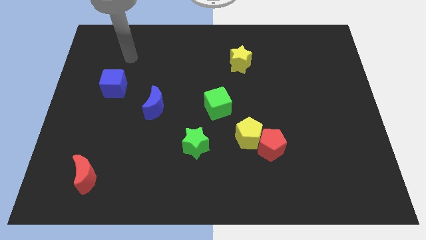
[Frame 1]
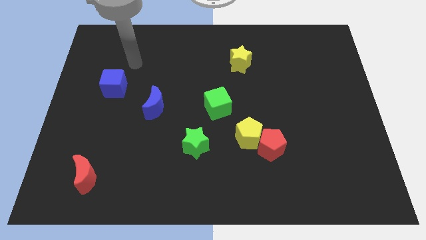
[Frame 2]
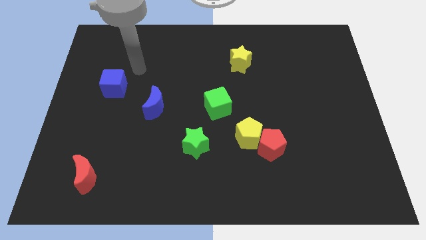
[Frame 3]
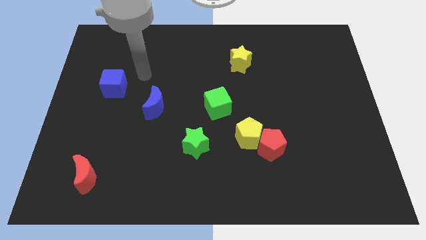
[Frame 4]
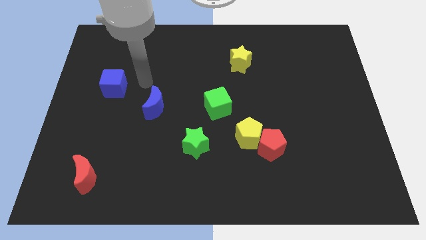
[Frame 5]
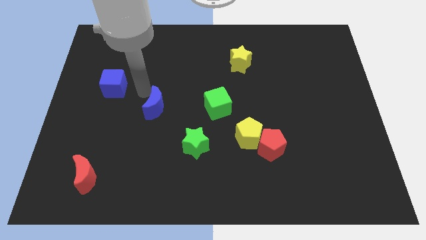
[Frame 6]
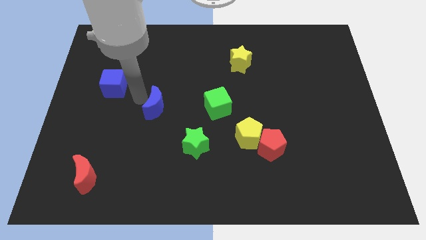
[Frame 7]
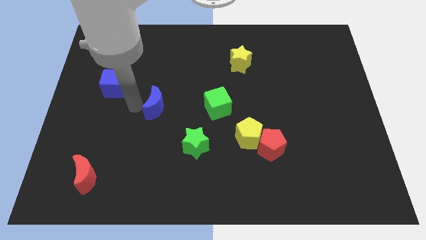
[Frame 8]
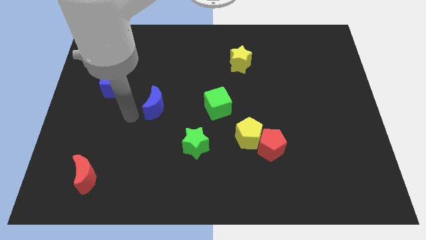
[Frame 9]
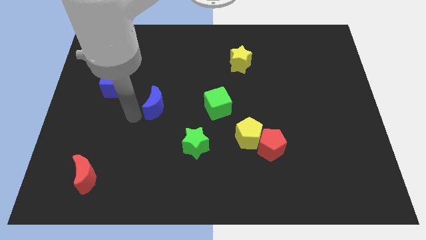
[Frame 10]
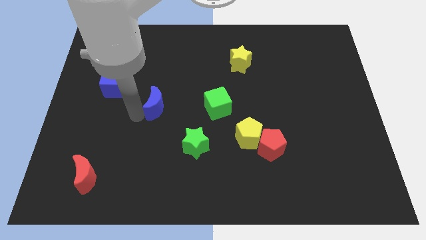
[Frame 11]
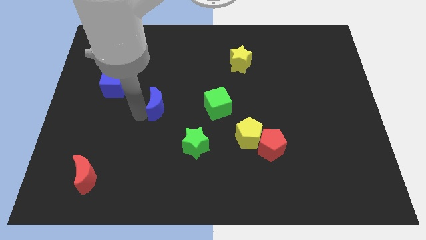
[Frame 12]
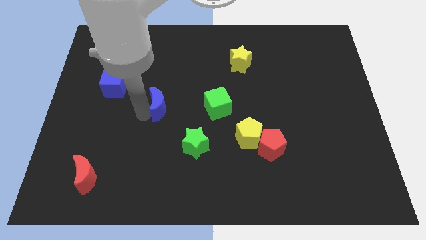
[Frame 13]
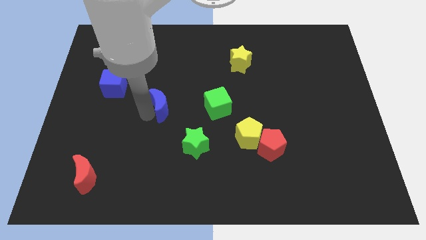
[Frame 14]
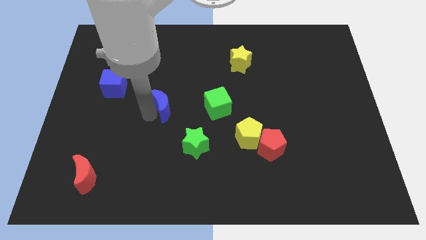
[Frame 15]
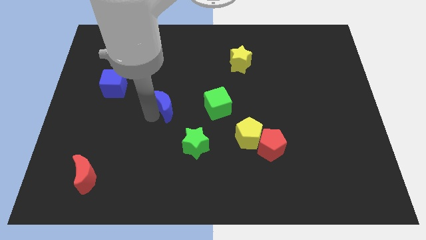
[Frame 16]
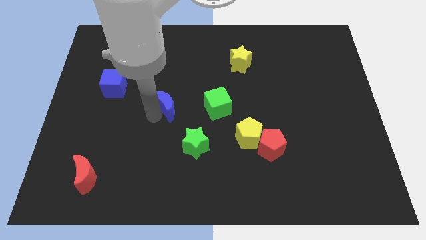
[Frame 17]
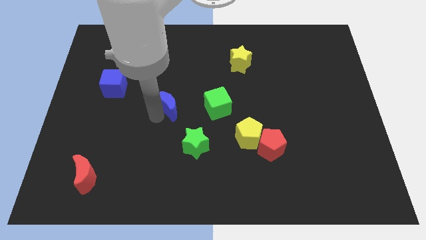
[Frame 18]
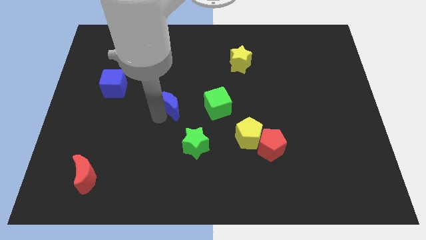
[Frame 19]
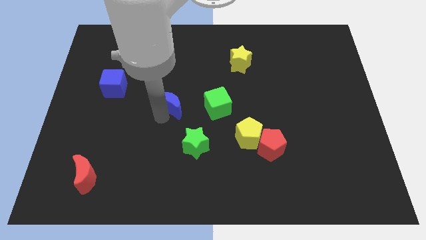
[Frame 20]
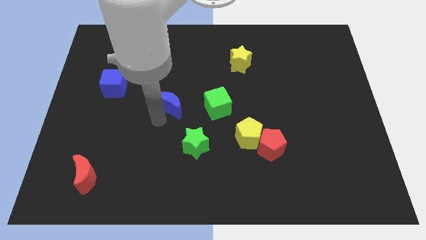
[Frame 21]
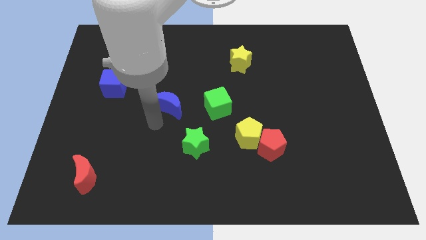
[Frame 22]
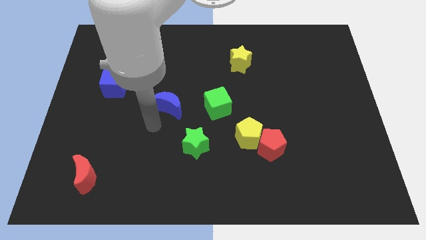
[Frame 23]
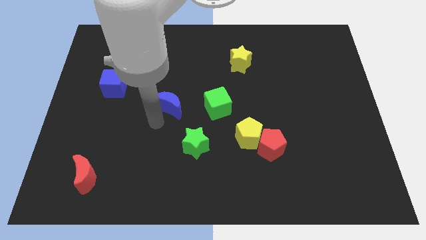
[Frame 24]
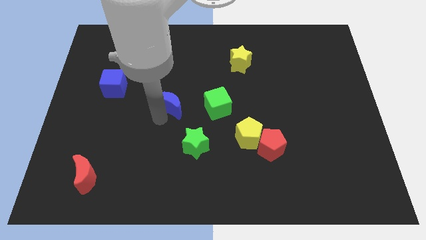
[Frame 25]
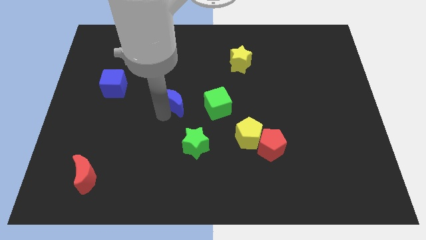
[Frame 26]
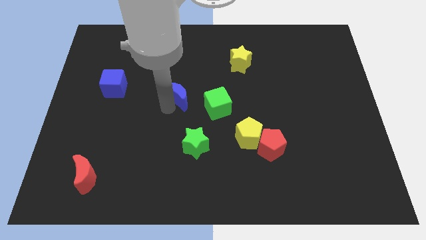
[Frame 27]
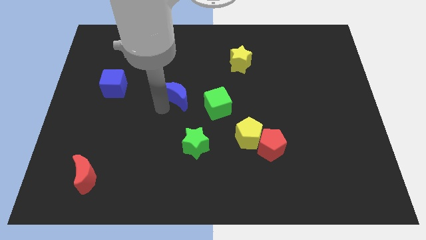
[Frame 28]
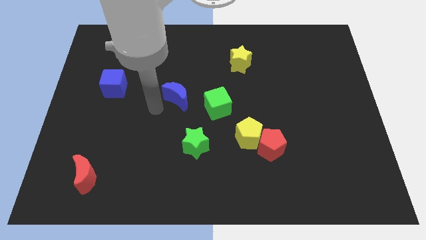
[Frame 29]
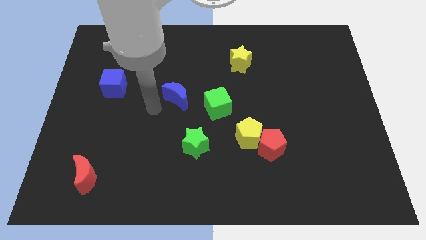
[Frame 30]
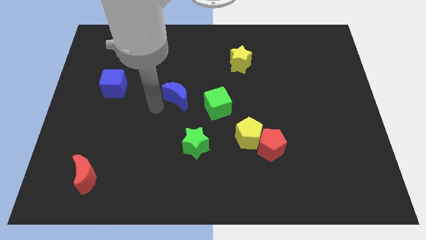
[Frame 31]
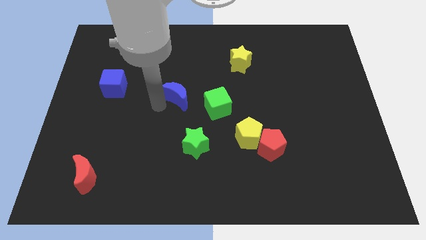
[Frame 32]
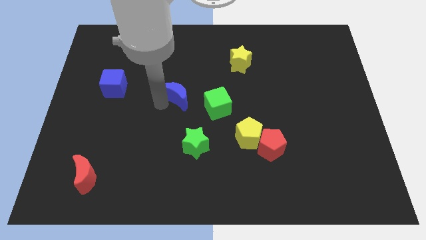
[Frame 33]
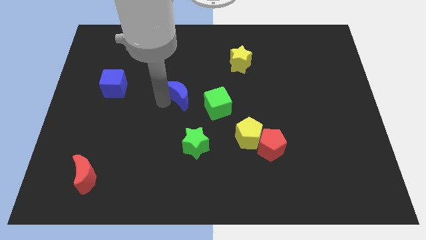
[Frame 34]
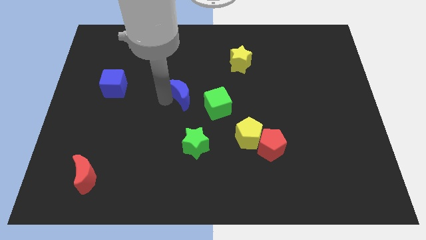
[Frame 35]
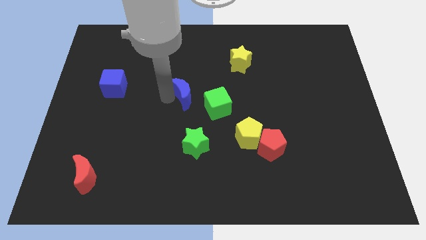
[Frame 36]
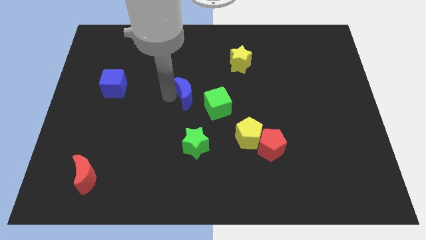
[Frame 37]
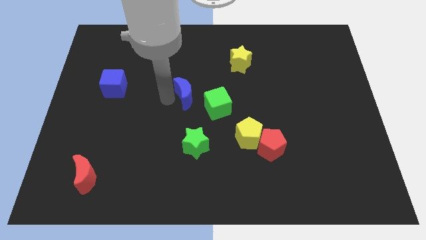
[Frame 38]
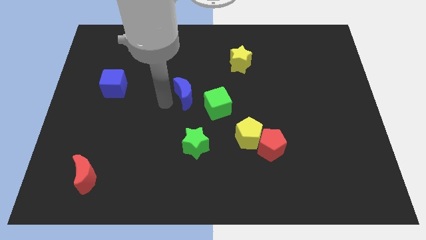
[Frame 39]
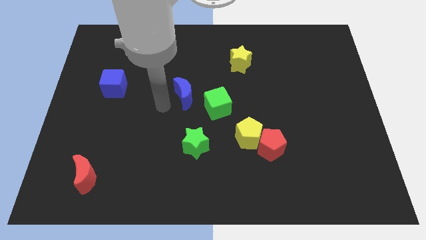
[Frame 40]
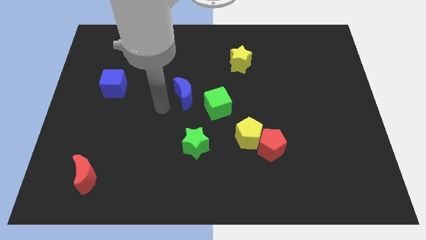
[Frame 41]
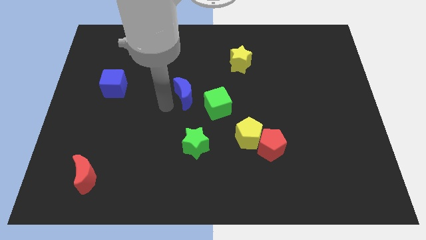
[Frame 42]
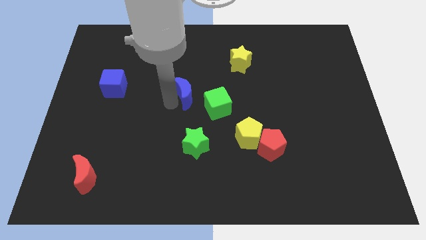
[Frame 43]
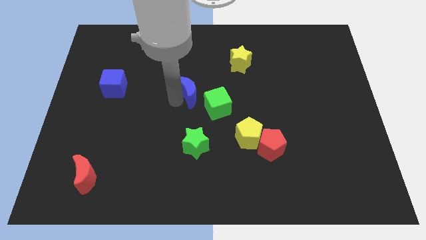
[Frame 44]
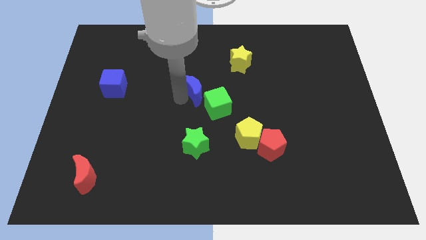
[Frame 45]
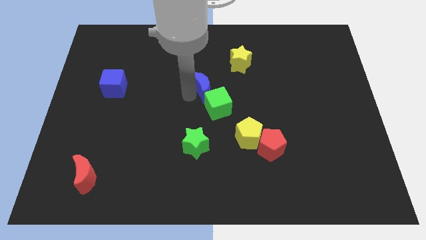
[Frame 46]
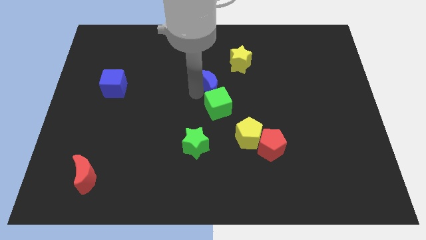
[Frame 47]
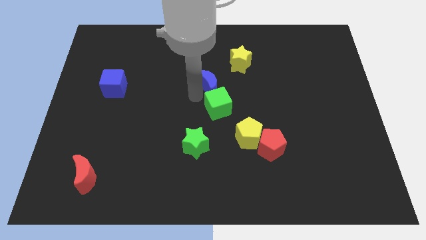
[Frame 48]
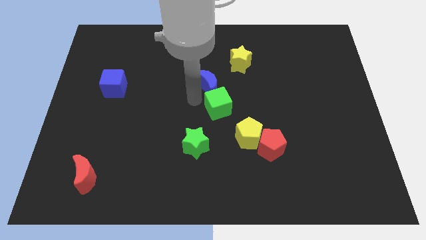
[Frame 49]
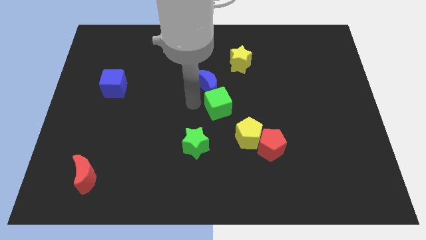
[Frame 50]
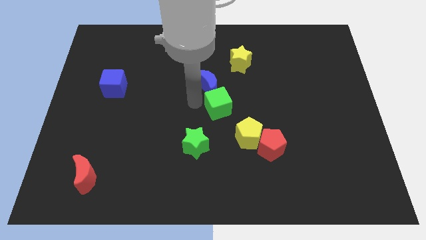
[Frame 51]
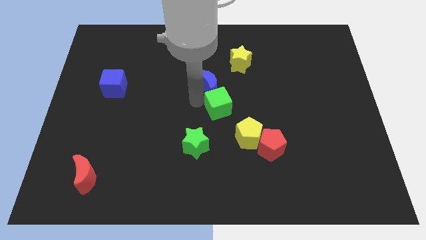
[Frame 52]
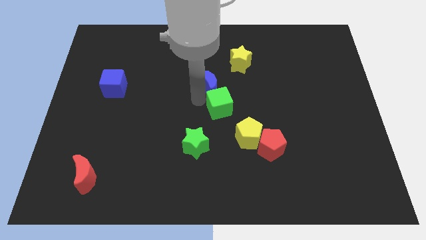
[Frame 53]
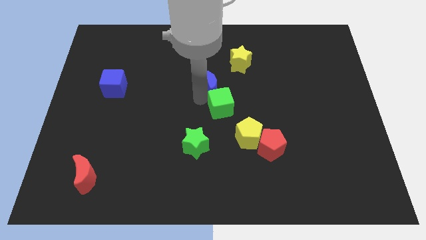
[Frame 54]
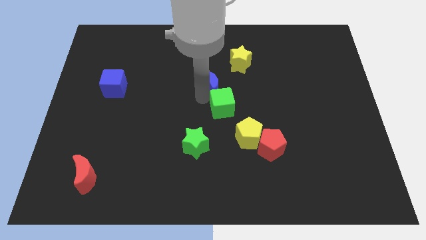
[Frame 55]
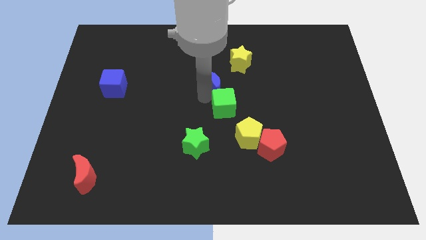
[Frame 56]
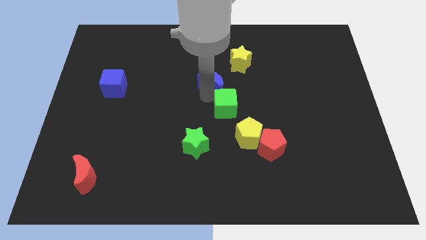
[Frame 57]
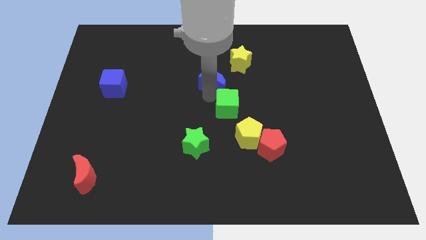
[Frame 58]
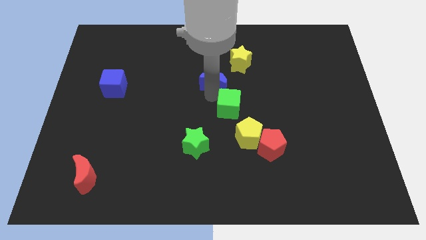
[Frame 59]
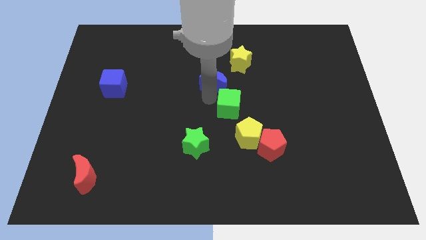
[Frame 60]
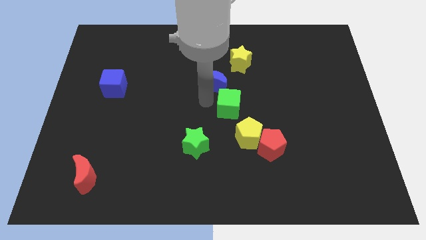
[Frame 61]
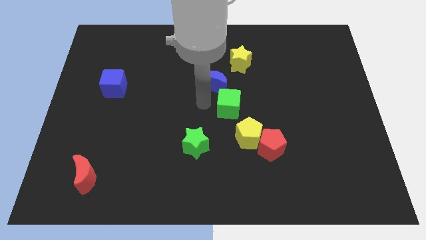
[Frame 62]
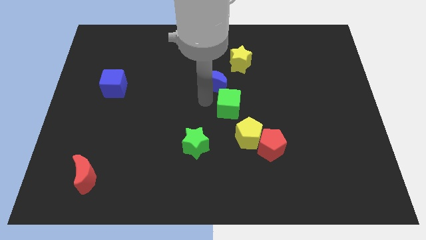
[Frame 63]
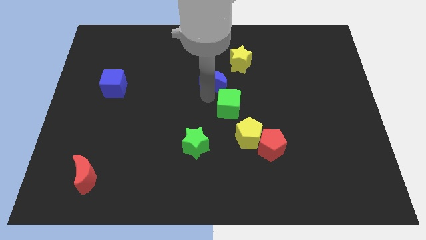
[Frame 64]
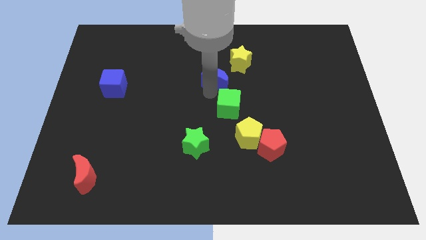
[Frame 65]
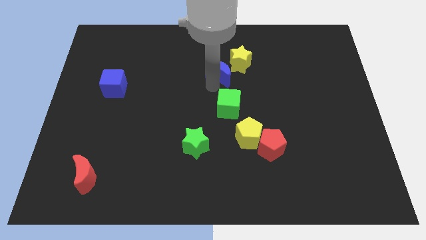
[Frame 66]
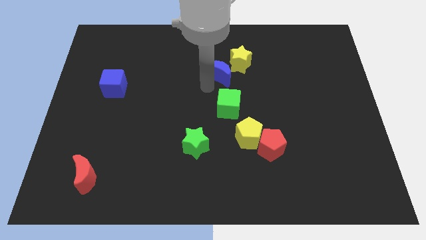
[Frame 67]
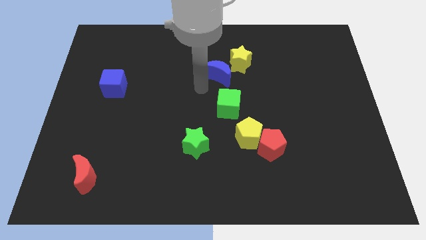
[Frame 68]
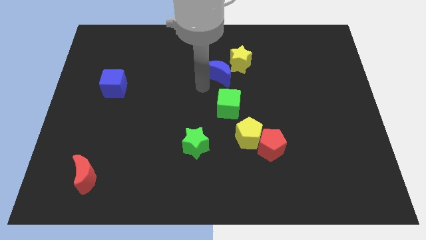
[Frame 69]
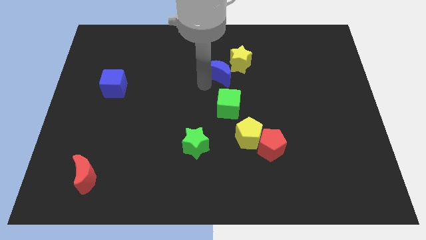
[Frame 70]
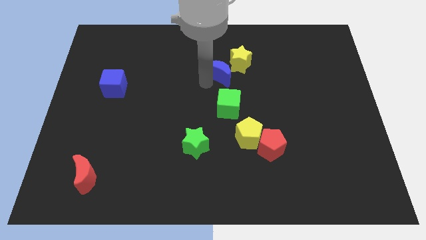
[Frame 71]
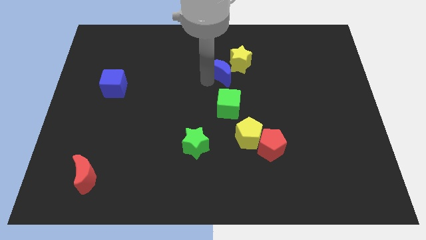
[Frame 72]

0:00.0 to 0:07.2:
push the blue moon next to the yellow star
